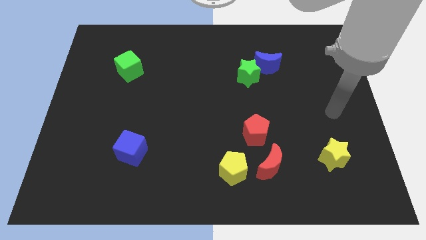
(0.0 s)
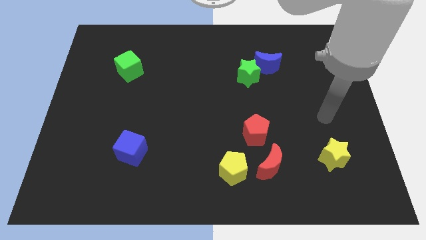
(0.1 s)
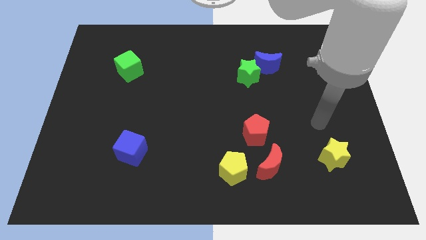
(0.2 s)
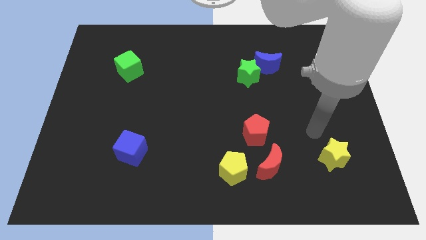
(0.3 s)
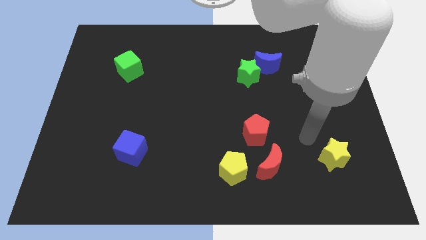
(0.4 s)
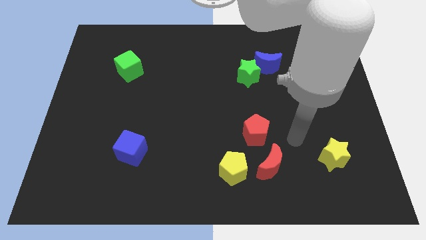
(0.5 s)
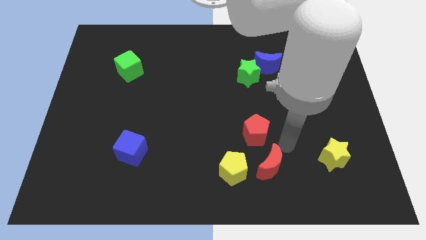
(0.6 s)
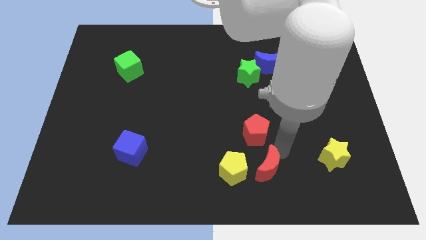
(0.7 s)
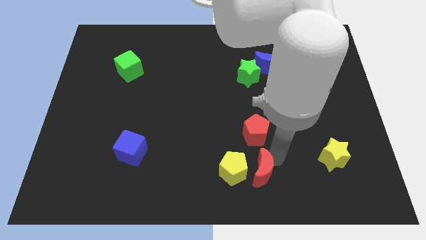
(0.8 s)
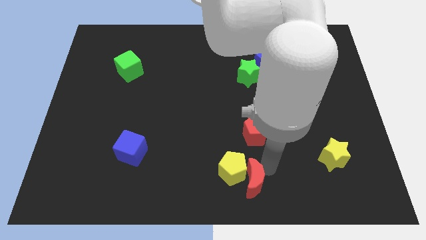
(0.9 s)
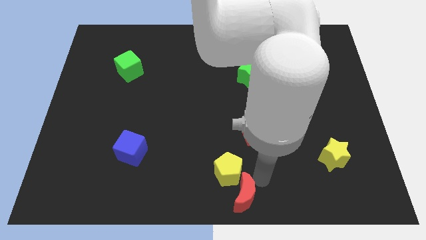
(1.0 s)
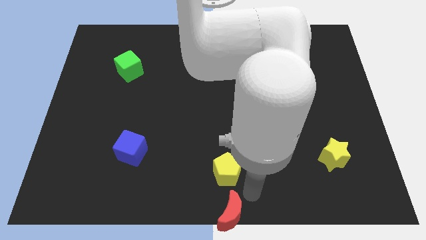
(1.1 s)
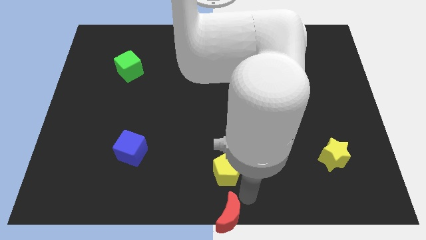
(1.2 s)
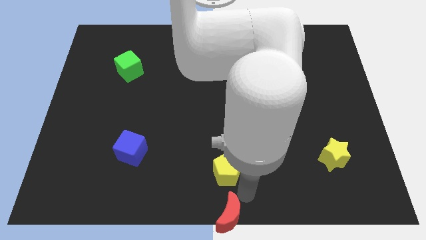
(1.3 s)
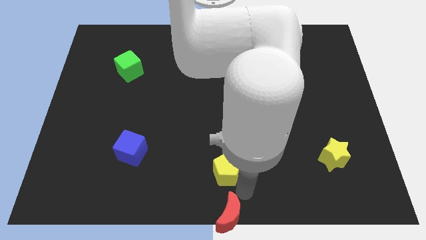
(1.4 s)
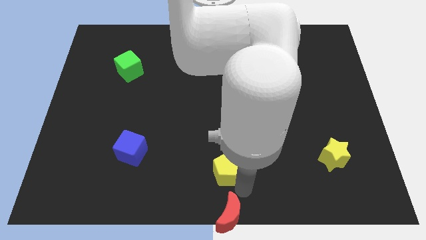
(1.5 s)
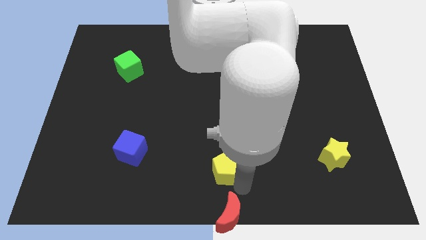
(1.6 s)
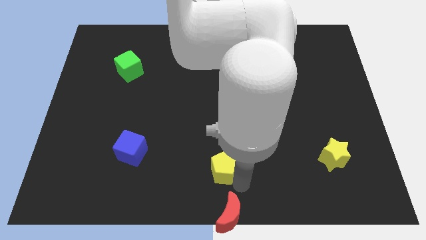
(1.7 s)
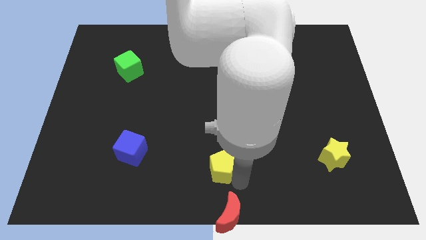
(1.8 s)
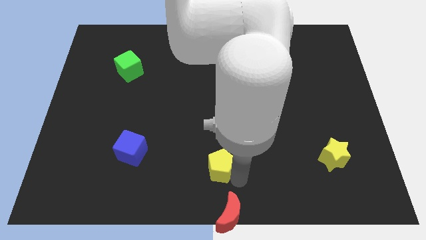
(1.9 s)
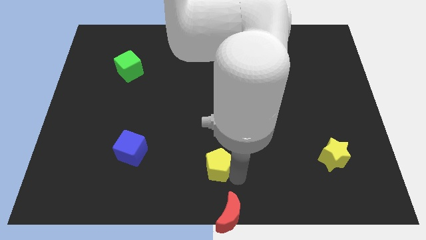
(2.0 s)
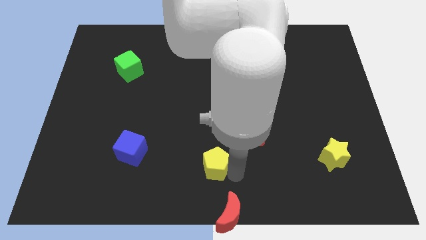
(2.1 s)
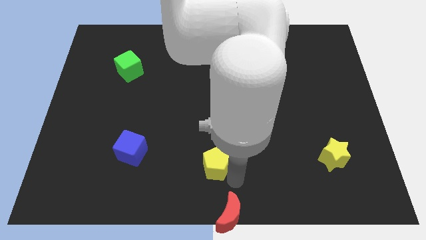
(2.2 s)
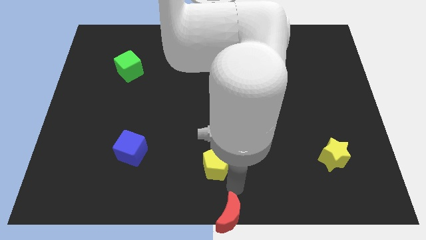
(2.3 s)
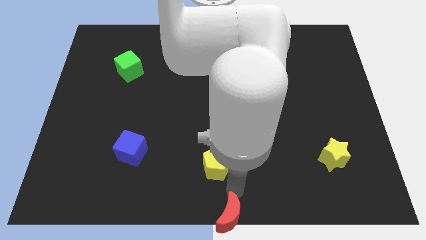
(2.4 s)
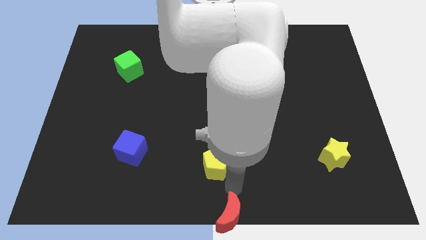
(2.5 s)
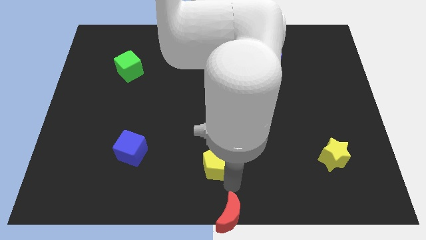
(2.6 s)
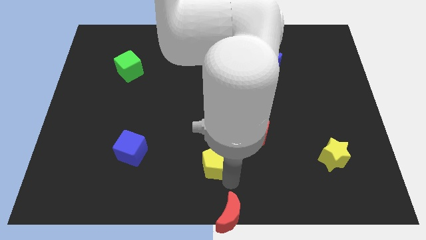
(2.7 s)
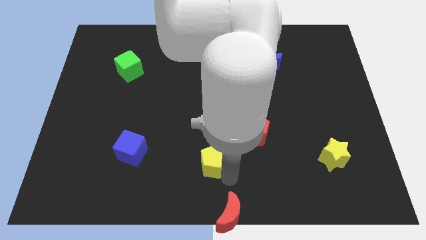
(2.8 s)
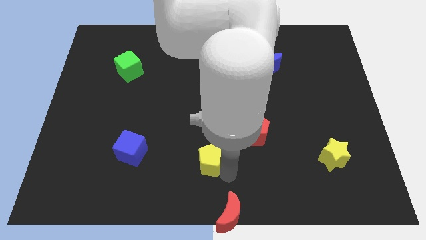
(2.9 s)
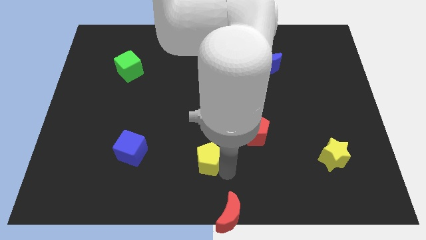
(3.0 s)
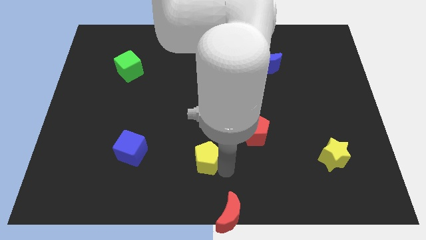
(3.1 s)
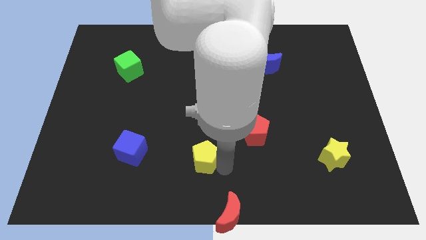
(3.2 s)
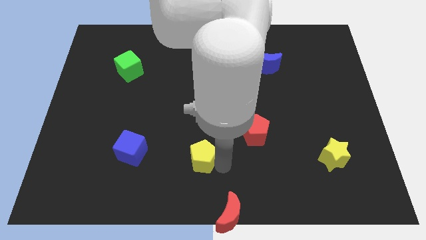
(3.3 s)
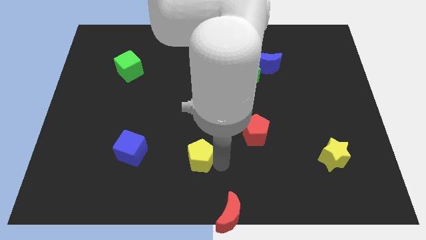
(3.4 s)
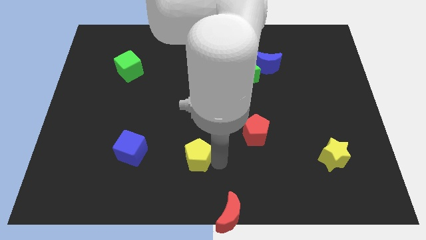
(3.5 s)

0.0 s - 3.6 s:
slightly push the yellow pentagon upwards and to the left

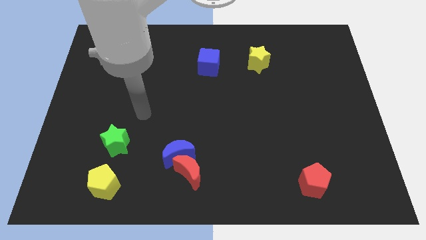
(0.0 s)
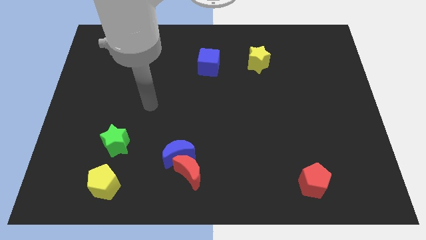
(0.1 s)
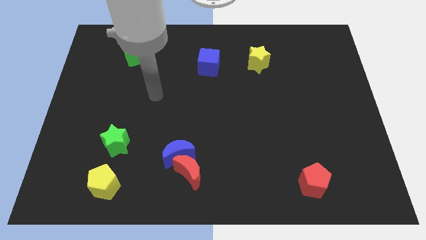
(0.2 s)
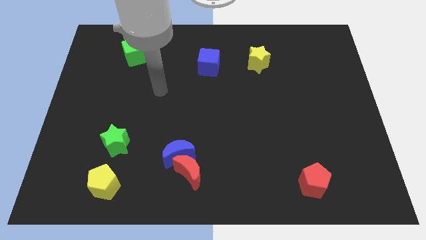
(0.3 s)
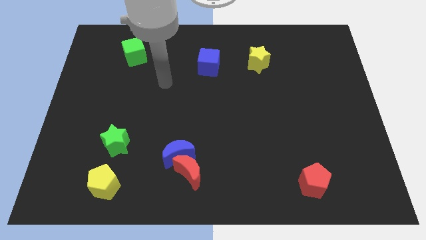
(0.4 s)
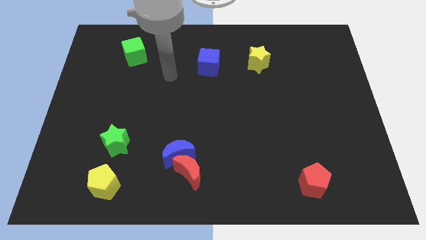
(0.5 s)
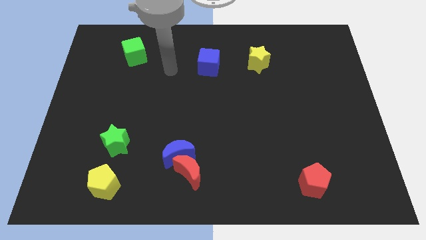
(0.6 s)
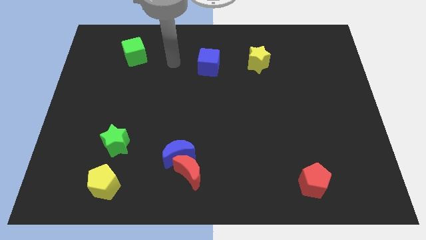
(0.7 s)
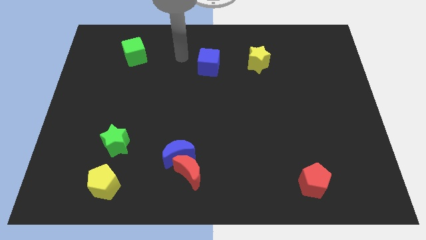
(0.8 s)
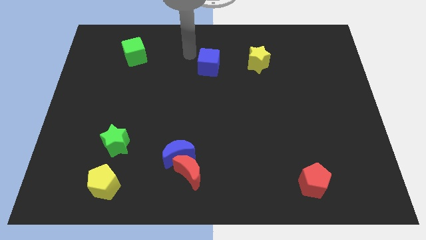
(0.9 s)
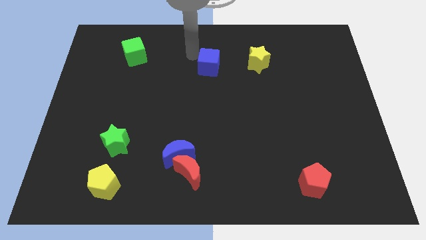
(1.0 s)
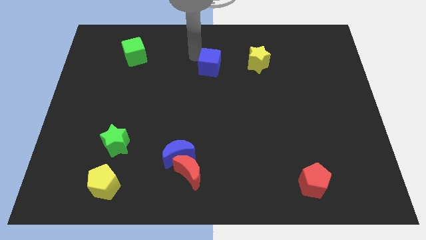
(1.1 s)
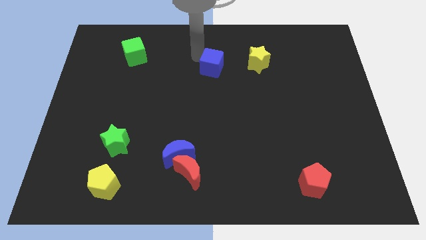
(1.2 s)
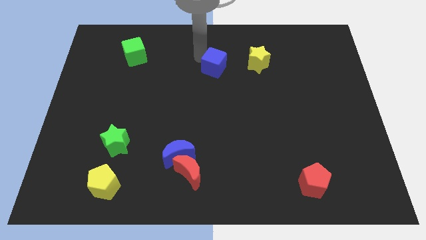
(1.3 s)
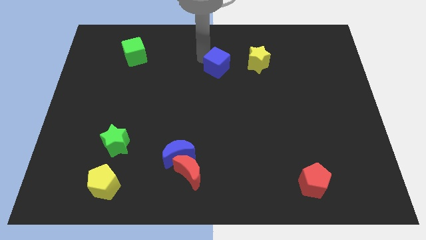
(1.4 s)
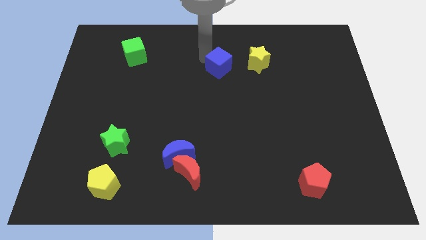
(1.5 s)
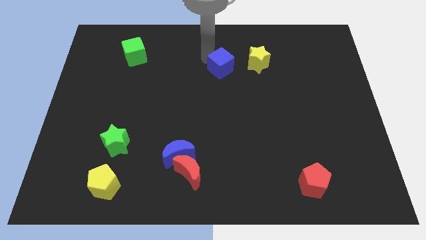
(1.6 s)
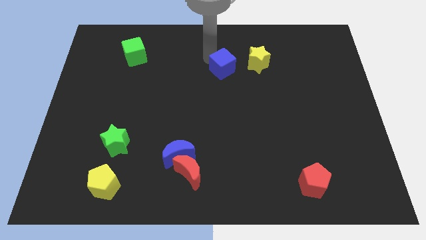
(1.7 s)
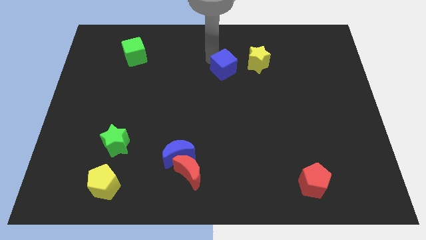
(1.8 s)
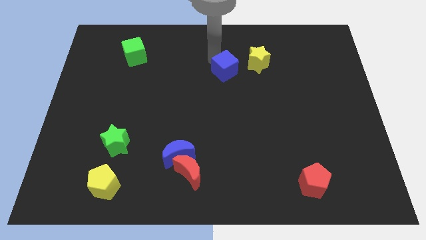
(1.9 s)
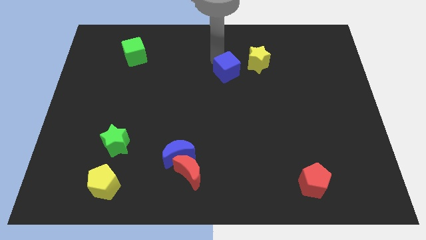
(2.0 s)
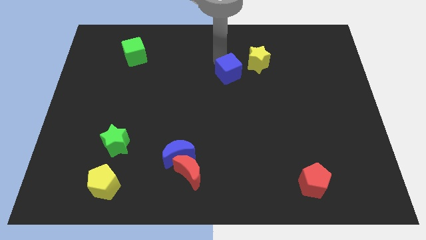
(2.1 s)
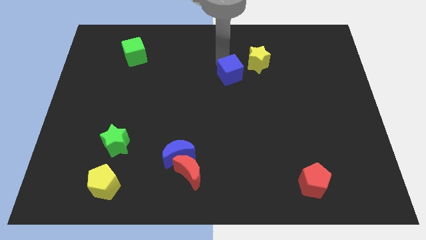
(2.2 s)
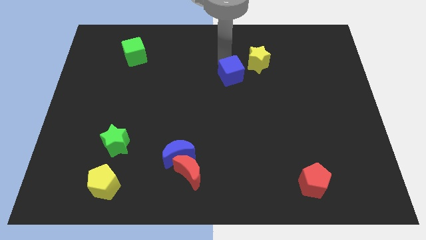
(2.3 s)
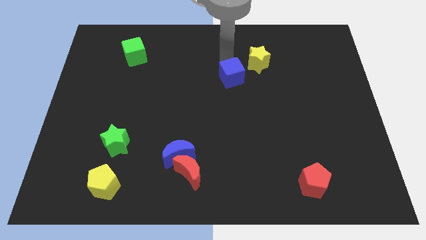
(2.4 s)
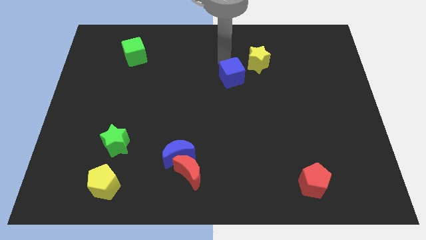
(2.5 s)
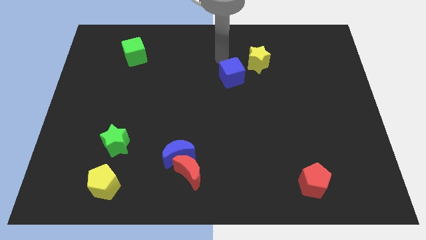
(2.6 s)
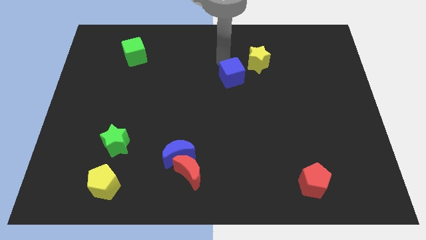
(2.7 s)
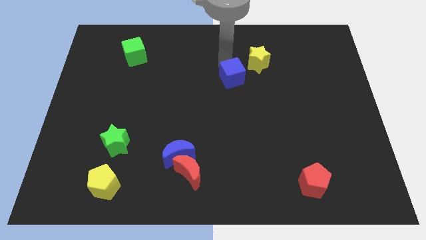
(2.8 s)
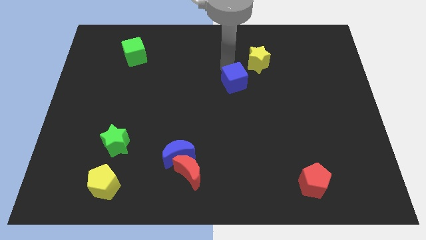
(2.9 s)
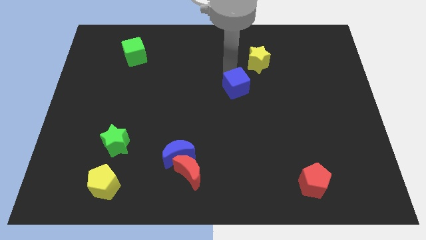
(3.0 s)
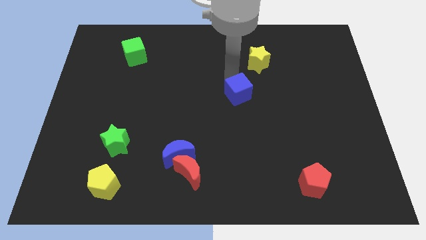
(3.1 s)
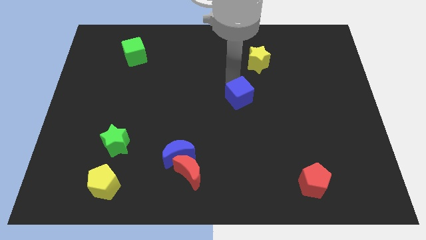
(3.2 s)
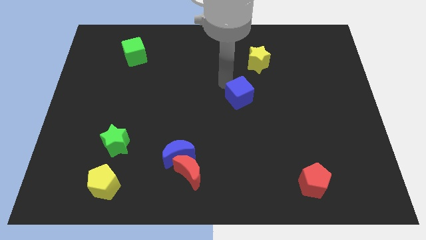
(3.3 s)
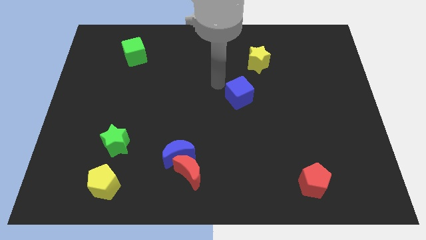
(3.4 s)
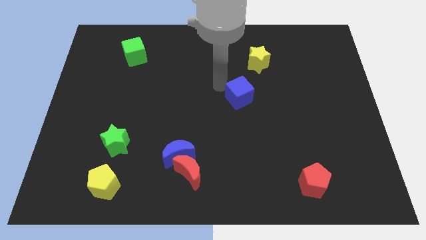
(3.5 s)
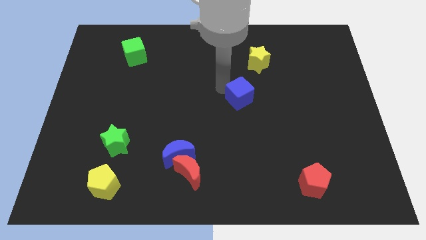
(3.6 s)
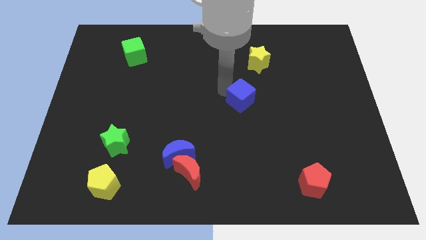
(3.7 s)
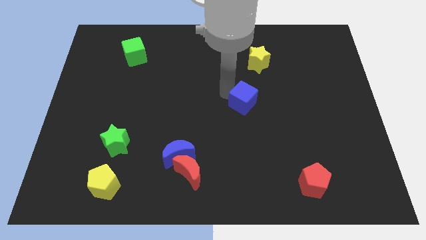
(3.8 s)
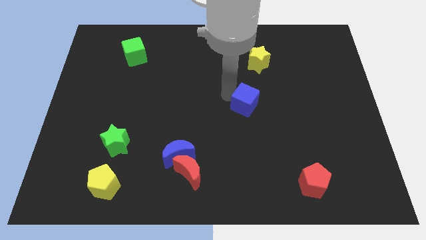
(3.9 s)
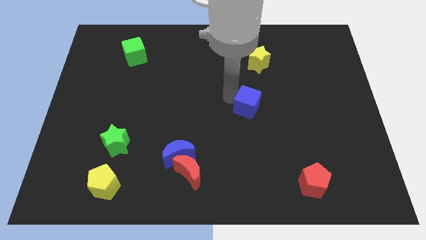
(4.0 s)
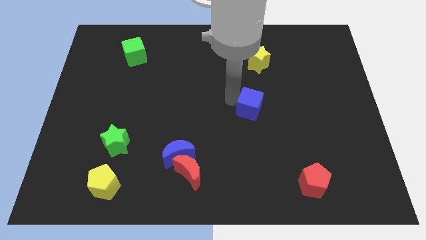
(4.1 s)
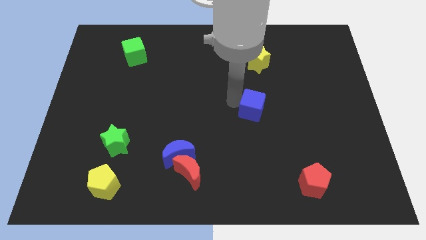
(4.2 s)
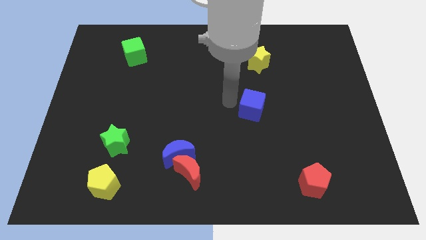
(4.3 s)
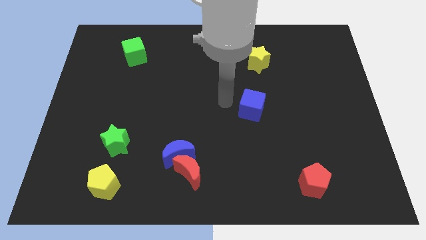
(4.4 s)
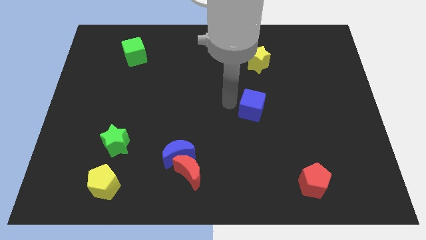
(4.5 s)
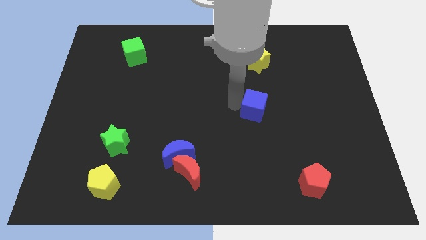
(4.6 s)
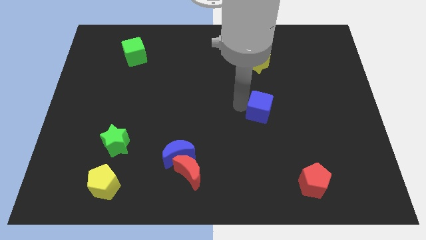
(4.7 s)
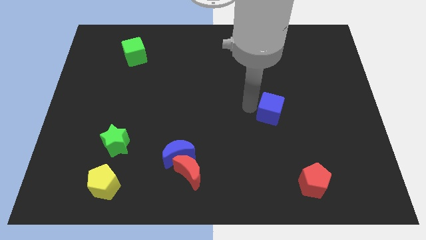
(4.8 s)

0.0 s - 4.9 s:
slide the blue cube downwards and right
